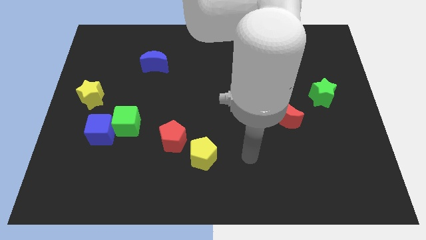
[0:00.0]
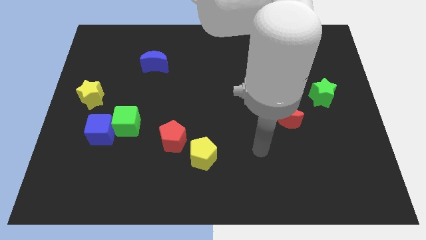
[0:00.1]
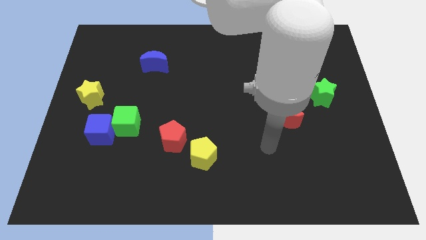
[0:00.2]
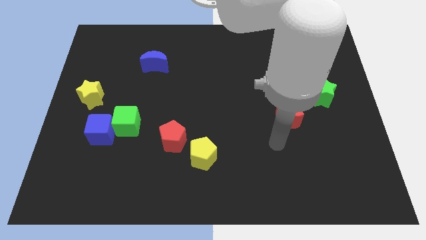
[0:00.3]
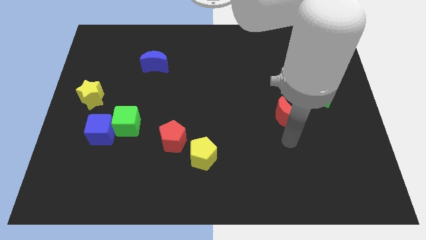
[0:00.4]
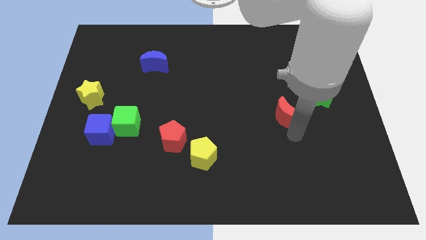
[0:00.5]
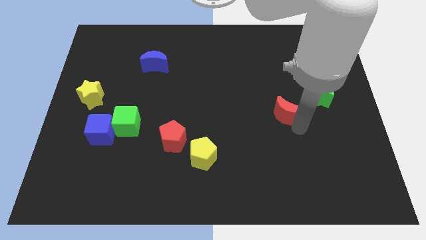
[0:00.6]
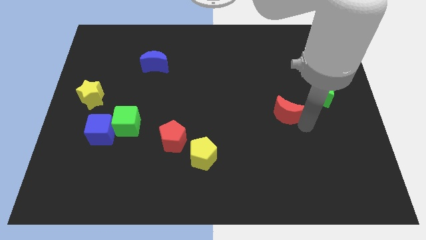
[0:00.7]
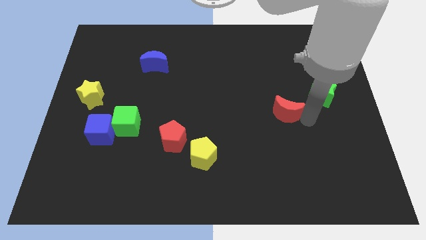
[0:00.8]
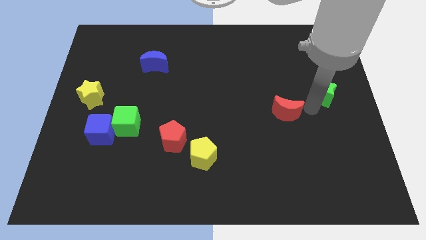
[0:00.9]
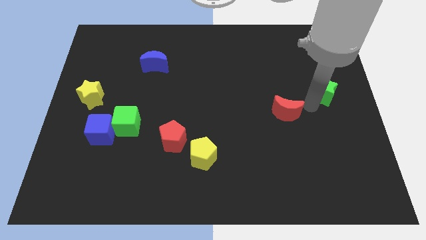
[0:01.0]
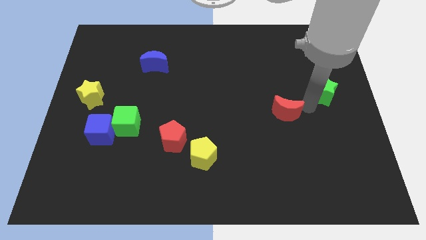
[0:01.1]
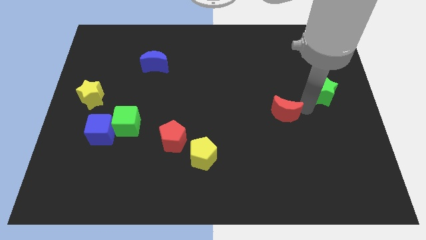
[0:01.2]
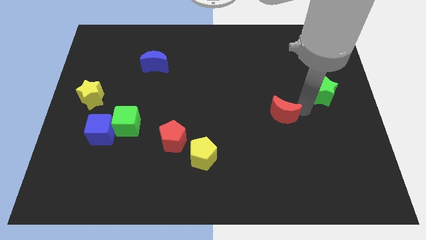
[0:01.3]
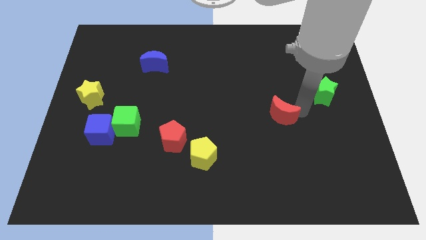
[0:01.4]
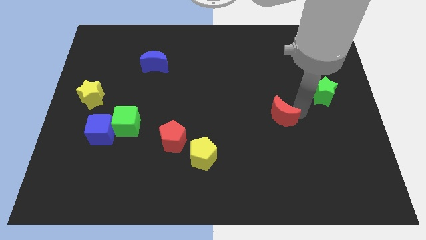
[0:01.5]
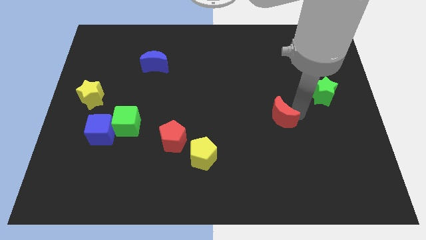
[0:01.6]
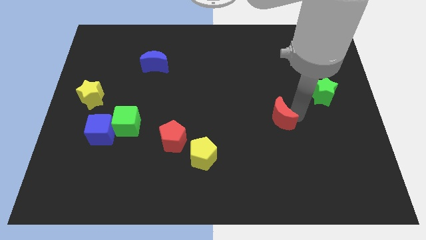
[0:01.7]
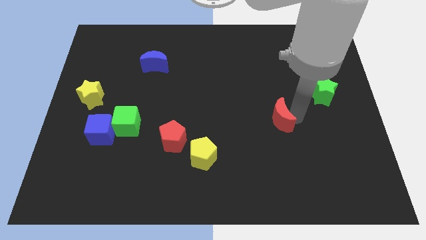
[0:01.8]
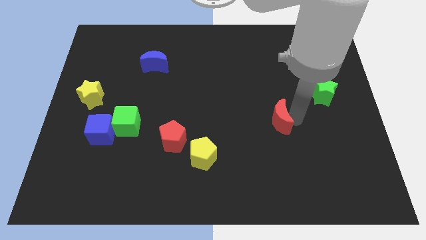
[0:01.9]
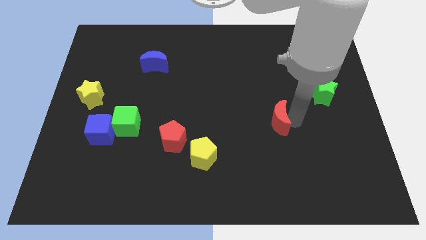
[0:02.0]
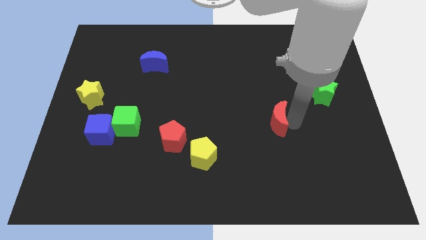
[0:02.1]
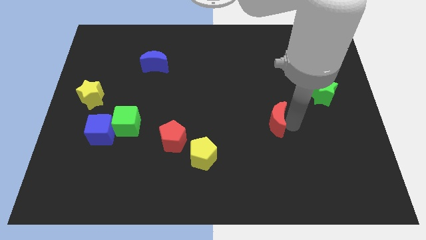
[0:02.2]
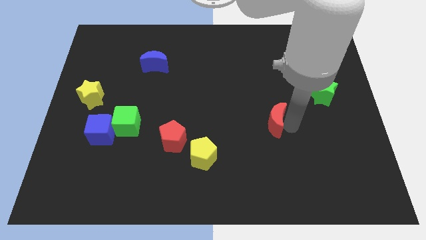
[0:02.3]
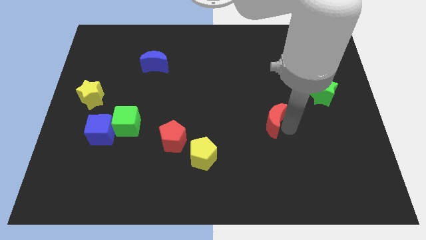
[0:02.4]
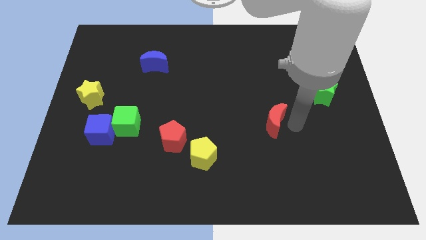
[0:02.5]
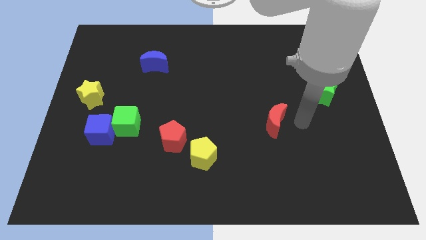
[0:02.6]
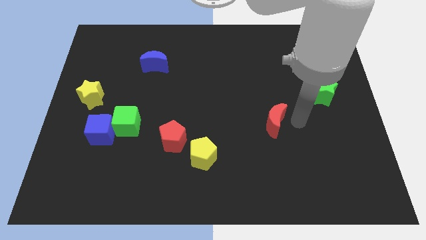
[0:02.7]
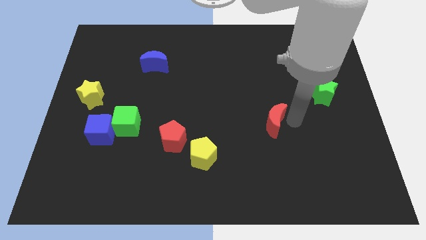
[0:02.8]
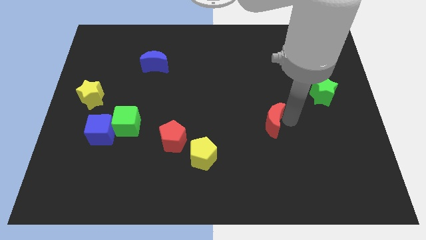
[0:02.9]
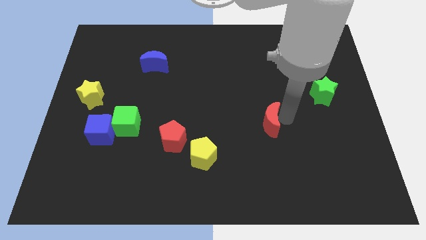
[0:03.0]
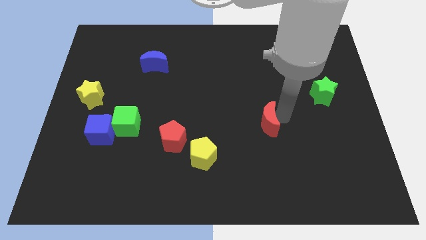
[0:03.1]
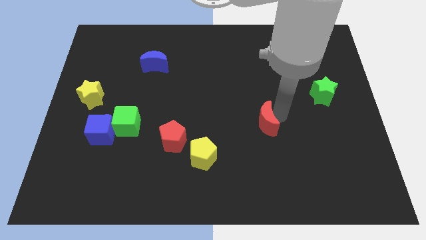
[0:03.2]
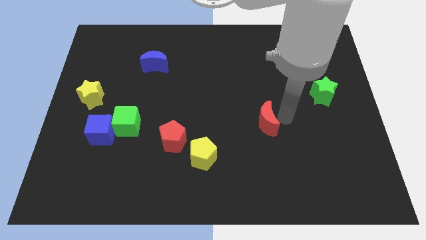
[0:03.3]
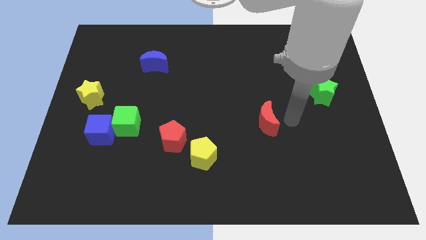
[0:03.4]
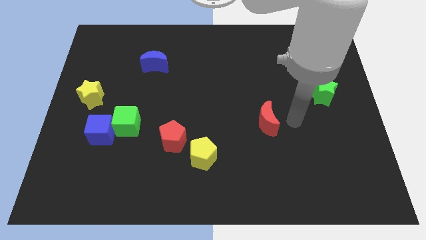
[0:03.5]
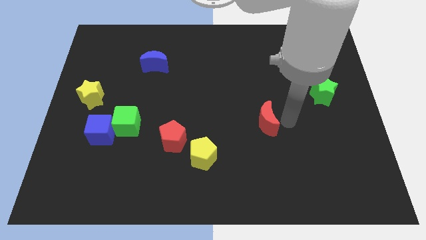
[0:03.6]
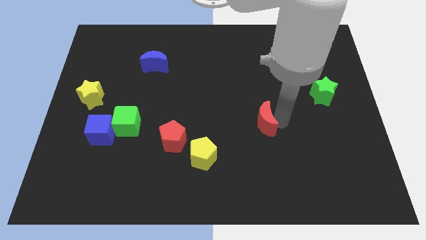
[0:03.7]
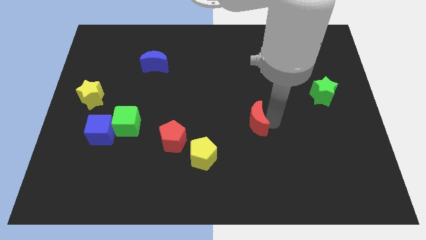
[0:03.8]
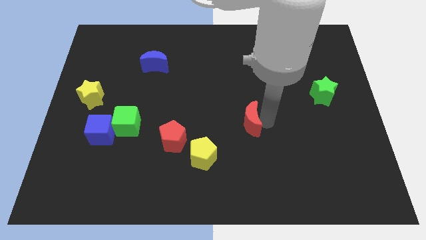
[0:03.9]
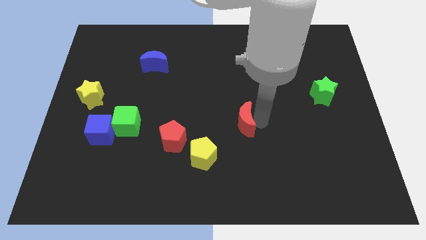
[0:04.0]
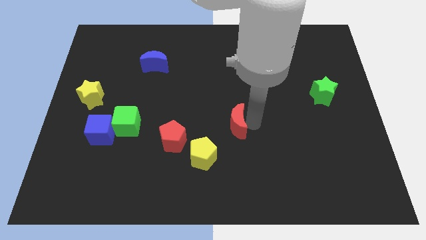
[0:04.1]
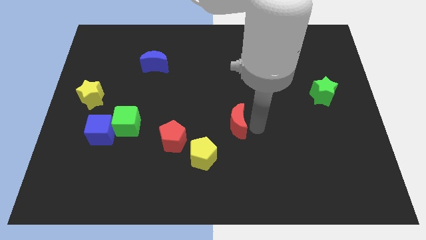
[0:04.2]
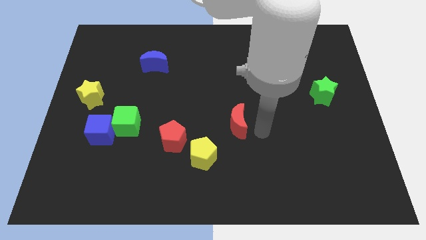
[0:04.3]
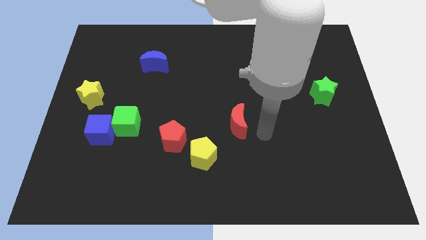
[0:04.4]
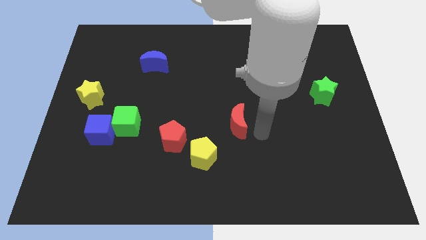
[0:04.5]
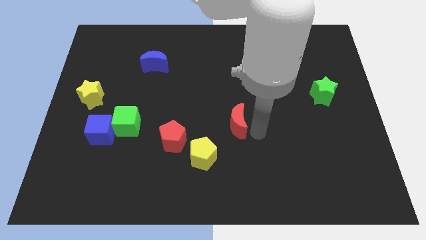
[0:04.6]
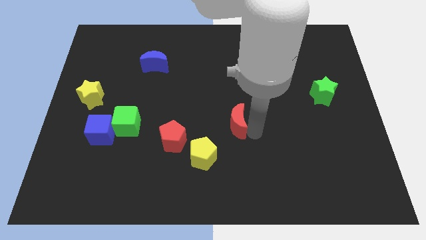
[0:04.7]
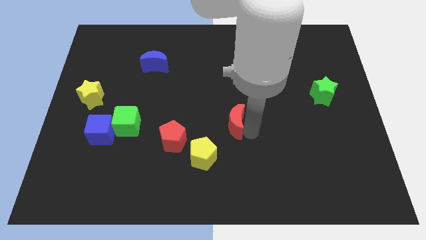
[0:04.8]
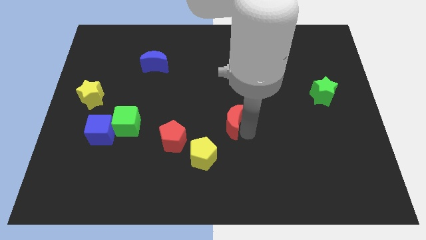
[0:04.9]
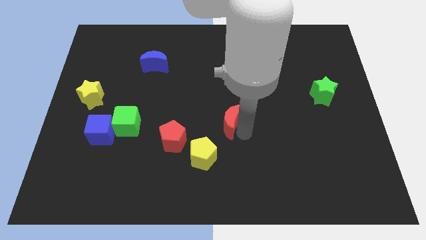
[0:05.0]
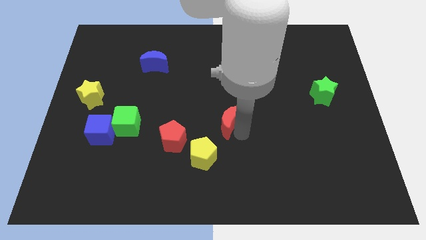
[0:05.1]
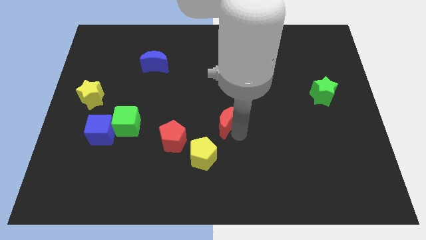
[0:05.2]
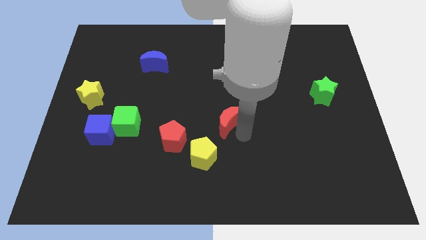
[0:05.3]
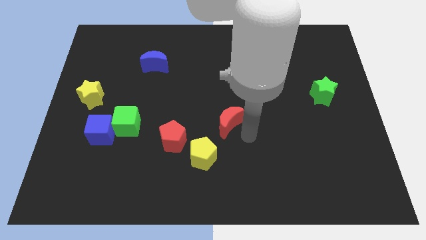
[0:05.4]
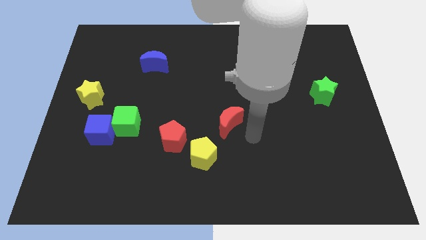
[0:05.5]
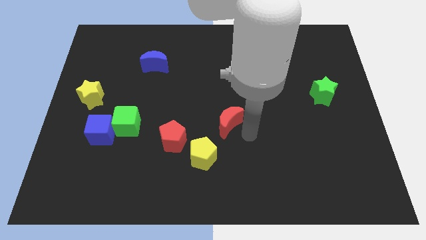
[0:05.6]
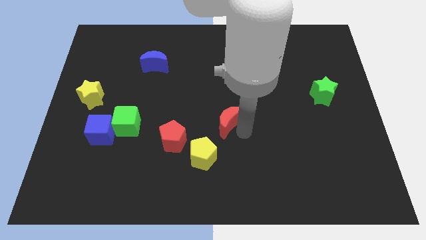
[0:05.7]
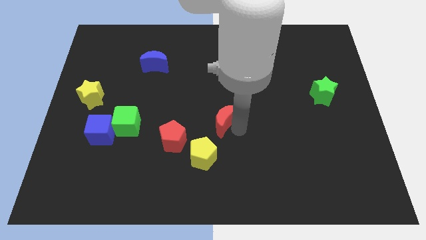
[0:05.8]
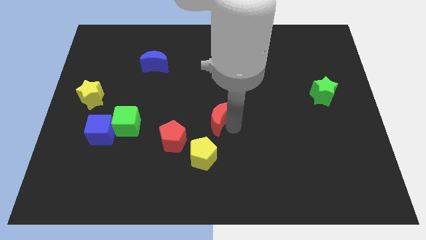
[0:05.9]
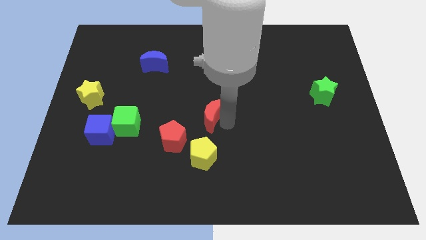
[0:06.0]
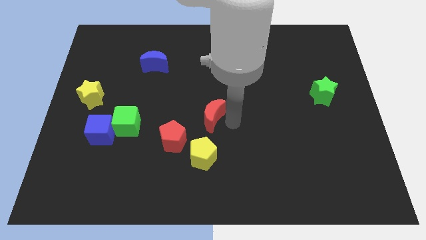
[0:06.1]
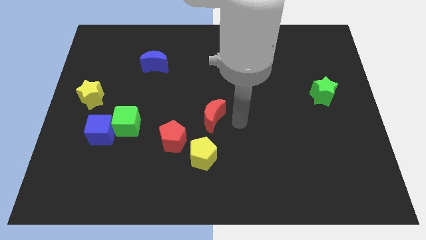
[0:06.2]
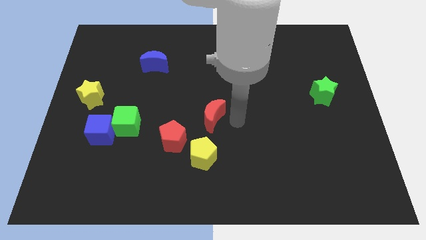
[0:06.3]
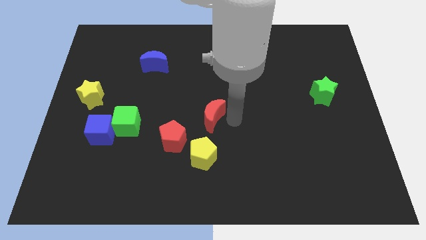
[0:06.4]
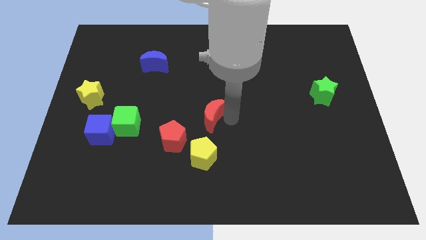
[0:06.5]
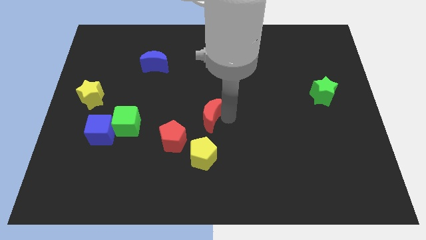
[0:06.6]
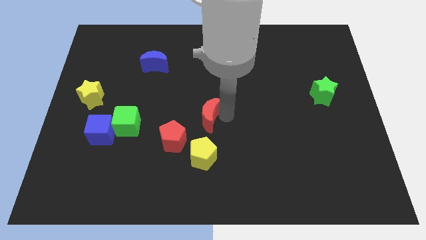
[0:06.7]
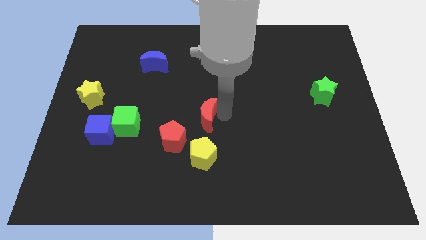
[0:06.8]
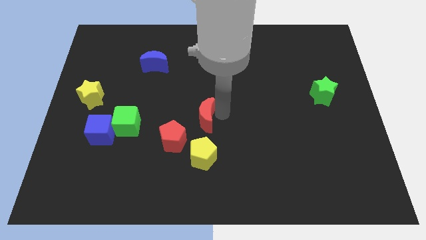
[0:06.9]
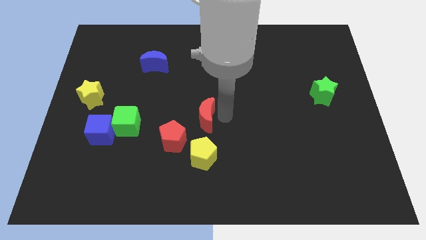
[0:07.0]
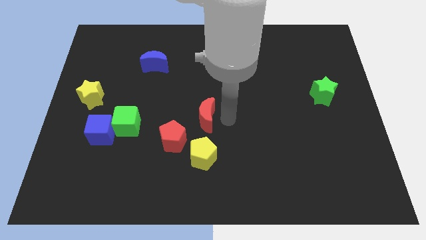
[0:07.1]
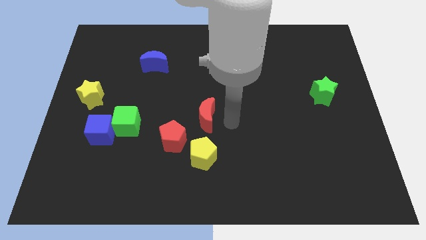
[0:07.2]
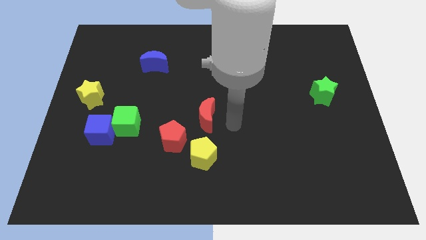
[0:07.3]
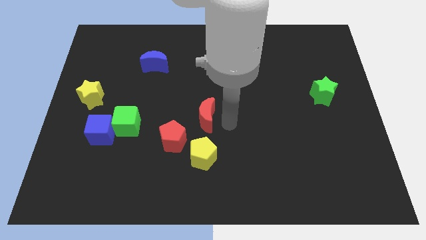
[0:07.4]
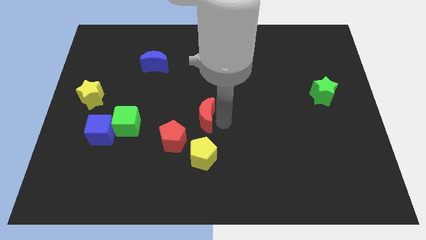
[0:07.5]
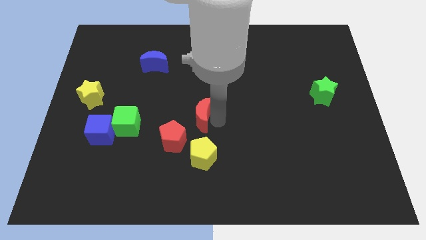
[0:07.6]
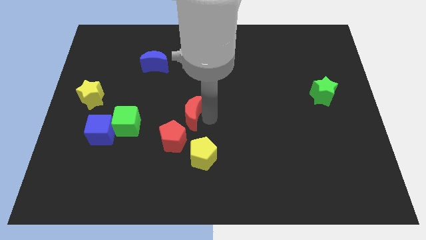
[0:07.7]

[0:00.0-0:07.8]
push the red moon to the left

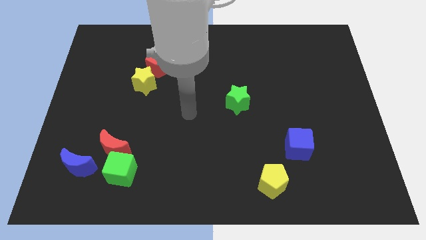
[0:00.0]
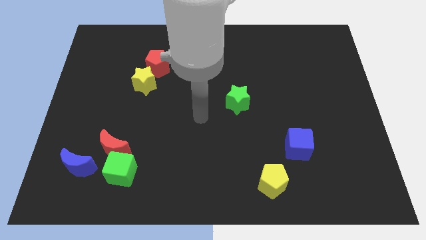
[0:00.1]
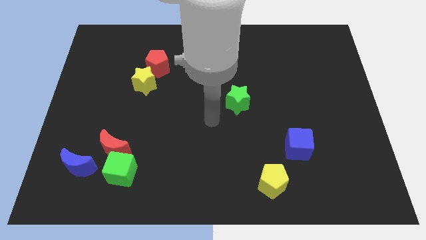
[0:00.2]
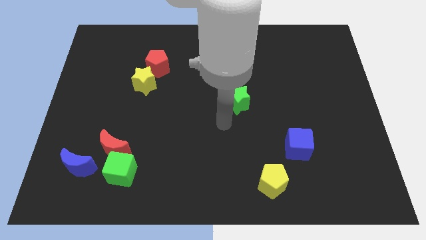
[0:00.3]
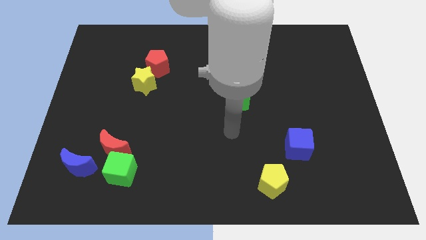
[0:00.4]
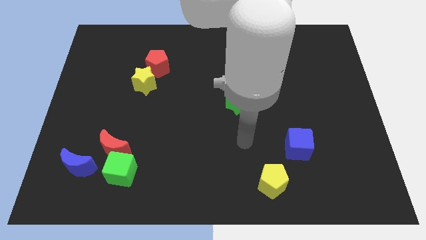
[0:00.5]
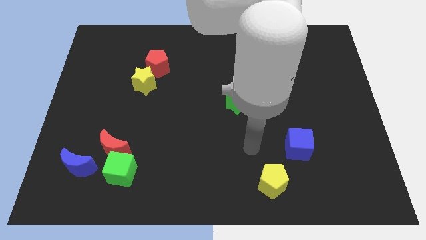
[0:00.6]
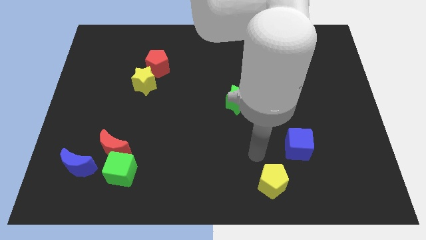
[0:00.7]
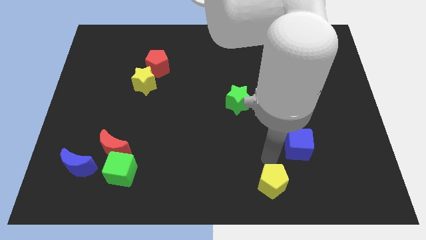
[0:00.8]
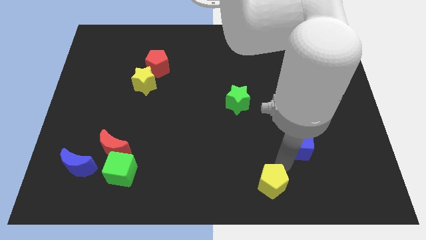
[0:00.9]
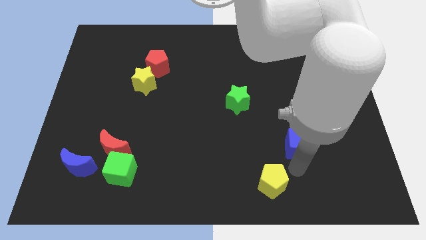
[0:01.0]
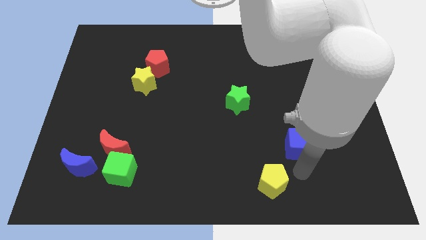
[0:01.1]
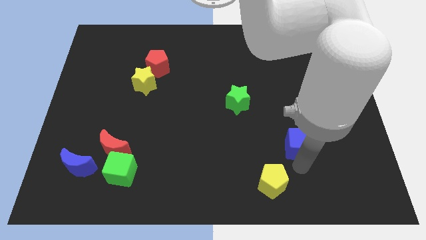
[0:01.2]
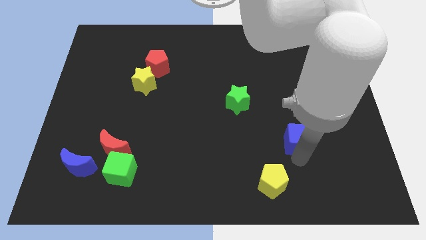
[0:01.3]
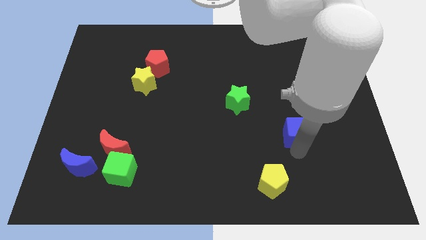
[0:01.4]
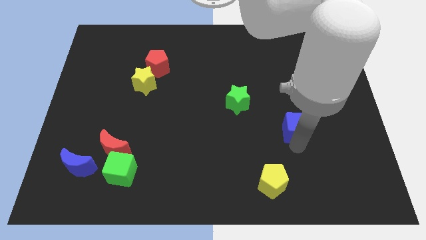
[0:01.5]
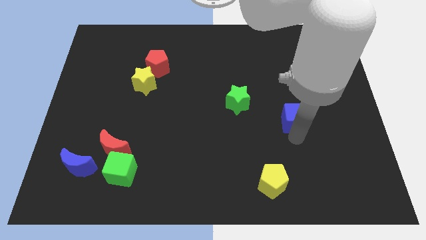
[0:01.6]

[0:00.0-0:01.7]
move the blue cube up a little
